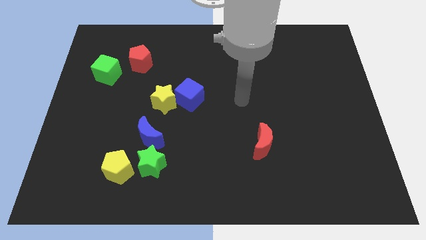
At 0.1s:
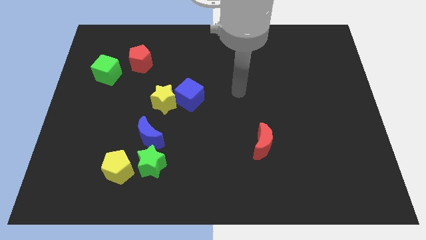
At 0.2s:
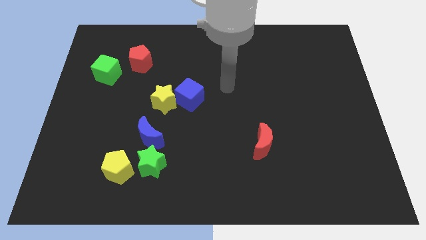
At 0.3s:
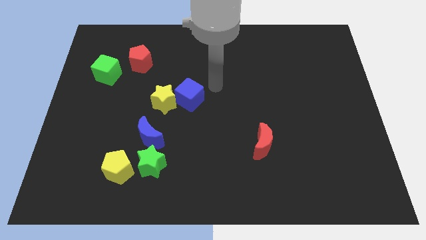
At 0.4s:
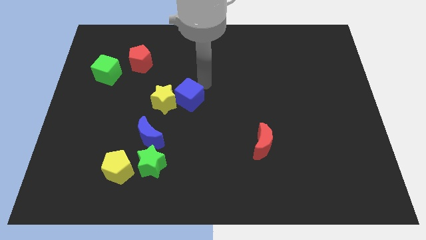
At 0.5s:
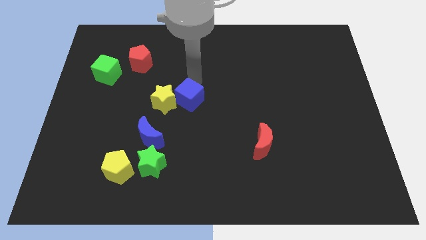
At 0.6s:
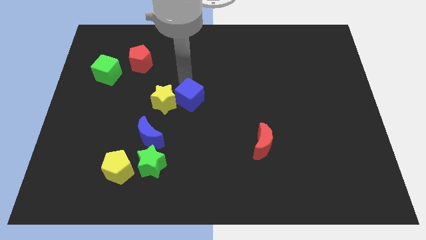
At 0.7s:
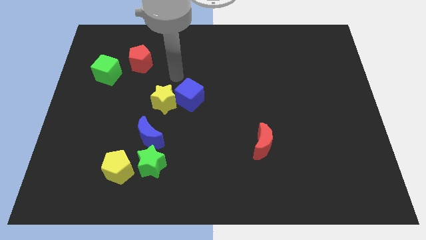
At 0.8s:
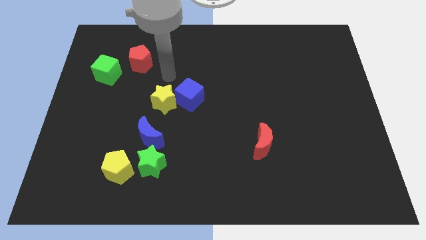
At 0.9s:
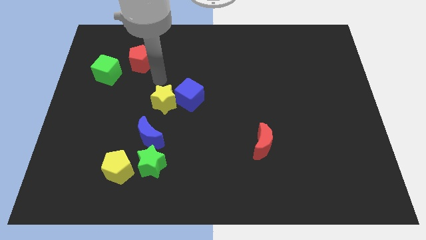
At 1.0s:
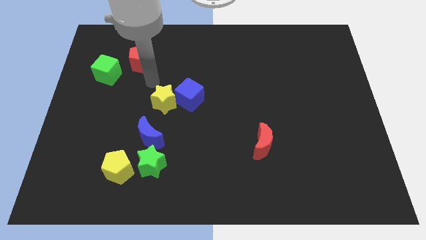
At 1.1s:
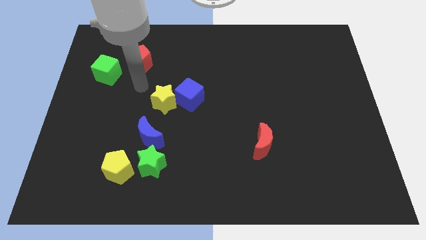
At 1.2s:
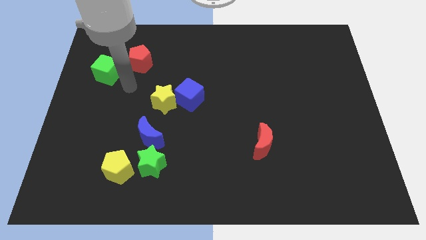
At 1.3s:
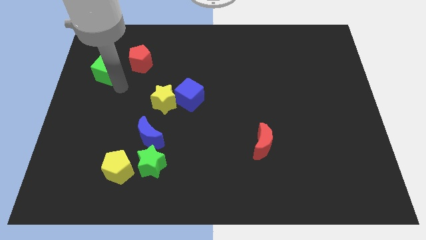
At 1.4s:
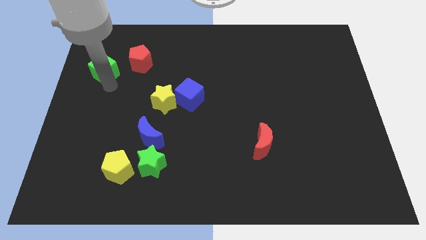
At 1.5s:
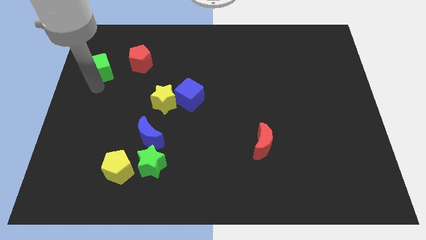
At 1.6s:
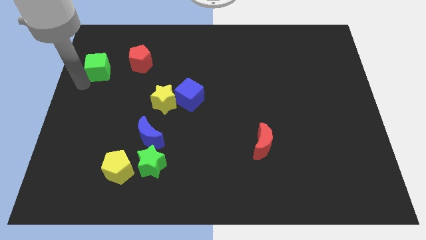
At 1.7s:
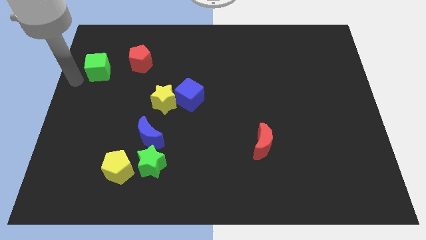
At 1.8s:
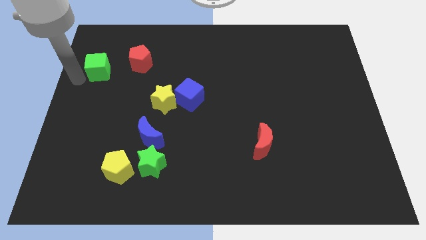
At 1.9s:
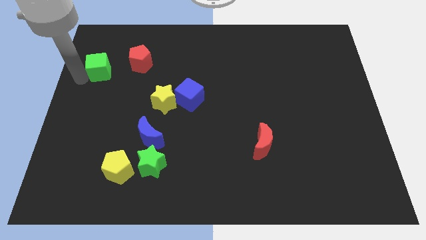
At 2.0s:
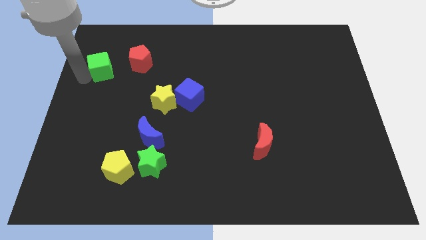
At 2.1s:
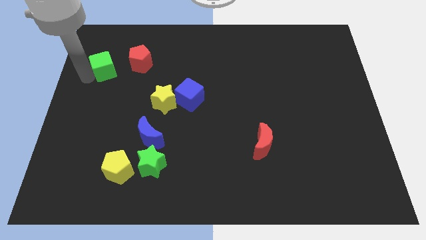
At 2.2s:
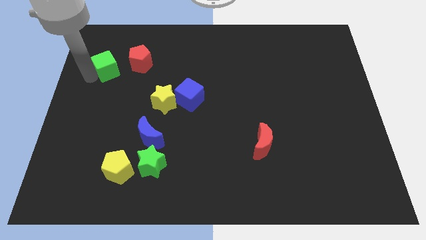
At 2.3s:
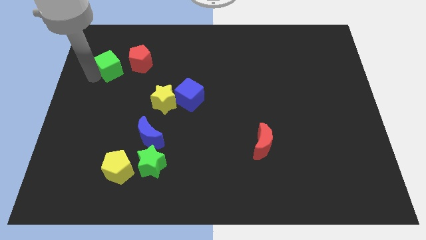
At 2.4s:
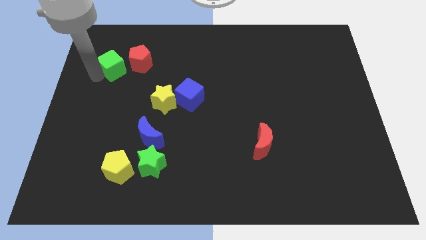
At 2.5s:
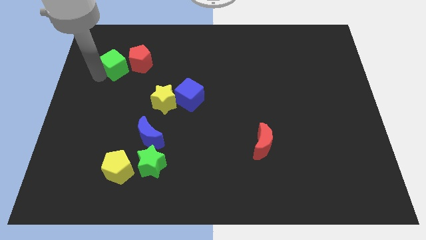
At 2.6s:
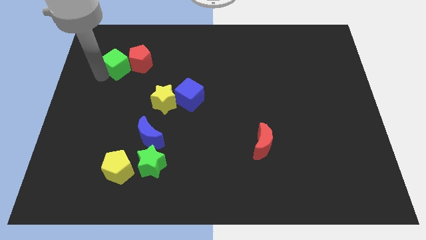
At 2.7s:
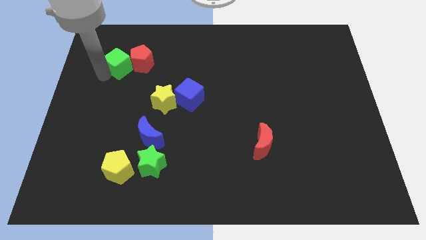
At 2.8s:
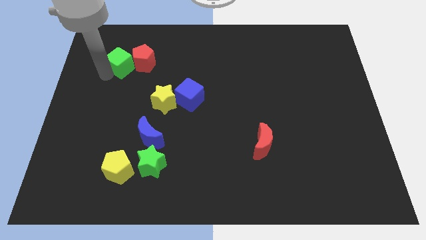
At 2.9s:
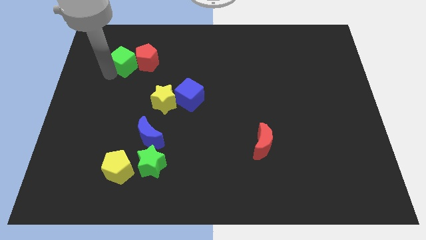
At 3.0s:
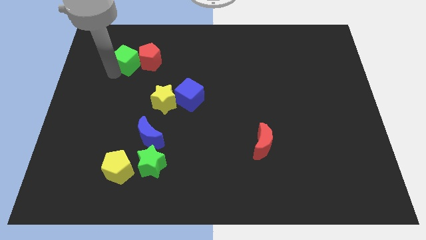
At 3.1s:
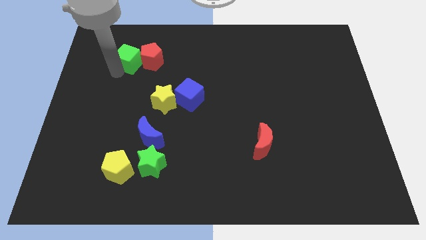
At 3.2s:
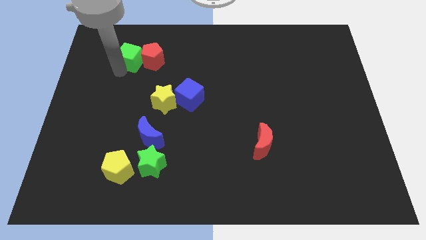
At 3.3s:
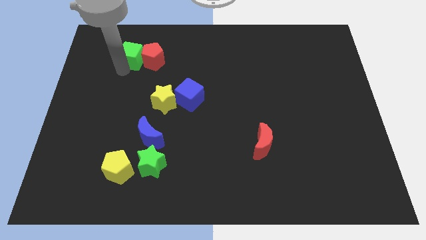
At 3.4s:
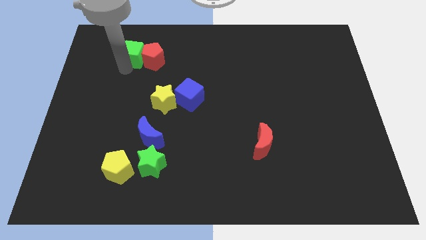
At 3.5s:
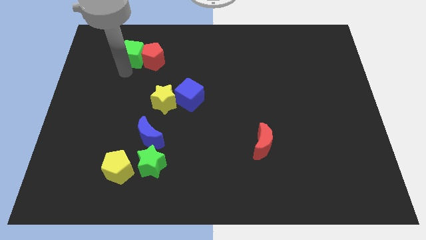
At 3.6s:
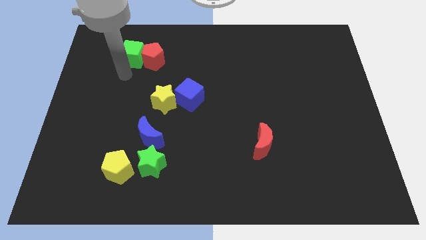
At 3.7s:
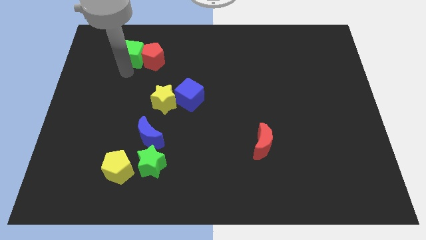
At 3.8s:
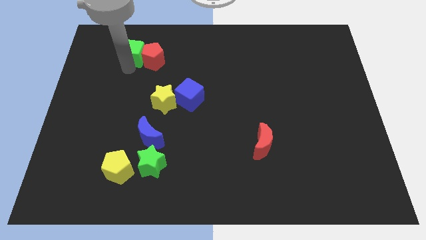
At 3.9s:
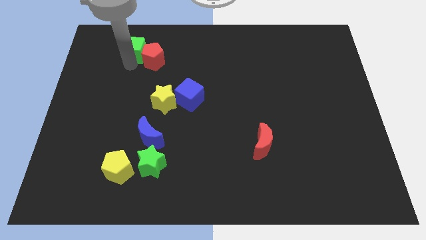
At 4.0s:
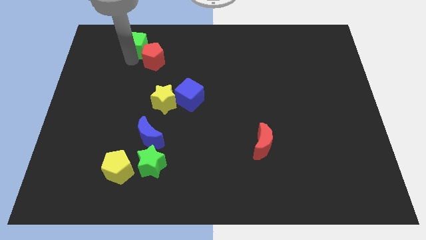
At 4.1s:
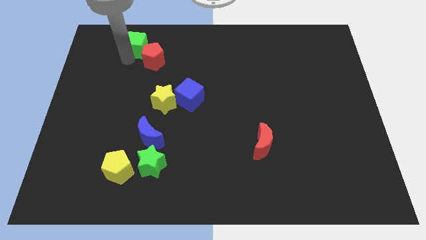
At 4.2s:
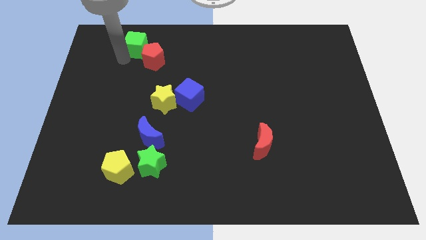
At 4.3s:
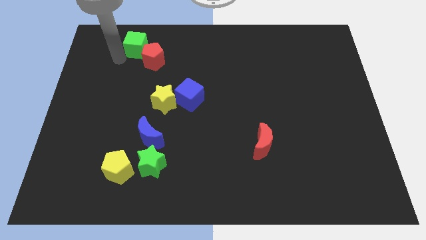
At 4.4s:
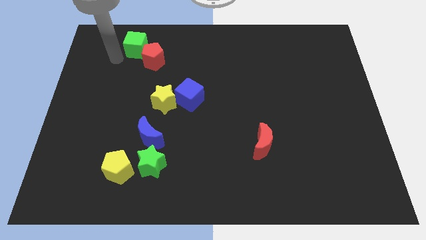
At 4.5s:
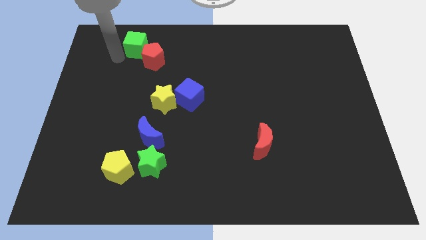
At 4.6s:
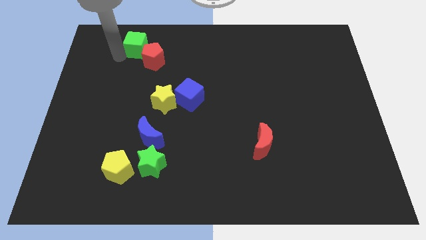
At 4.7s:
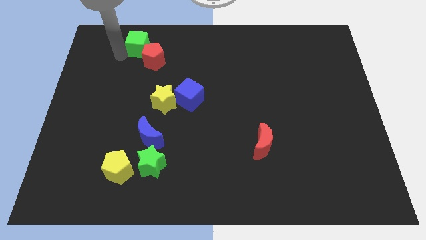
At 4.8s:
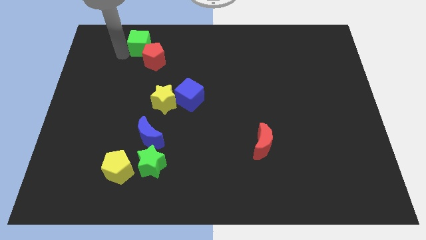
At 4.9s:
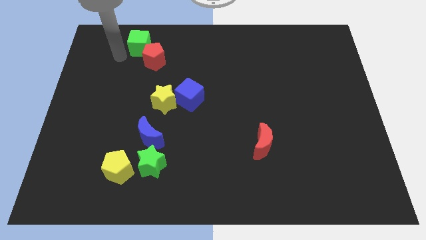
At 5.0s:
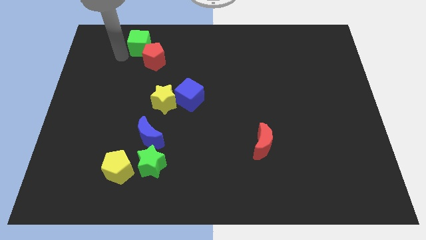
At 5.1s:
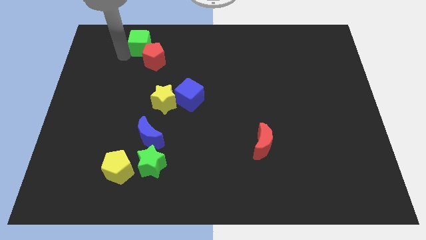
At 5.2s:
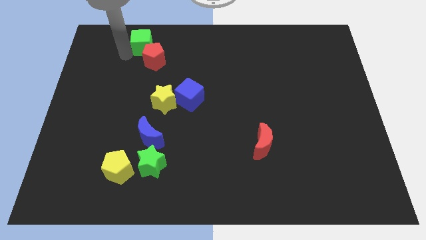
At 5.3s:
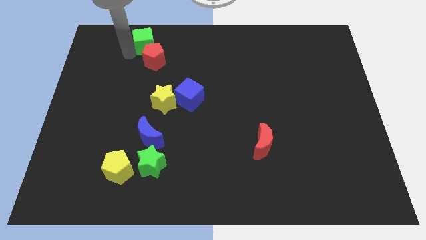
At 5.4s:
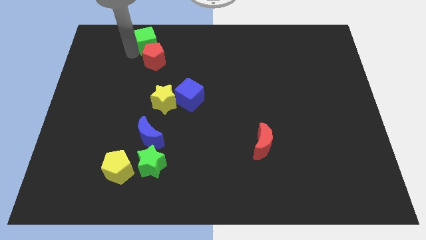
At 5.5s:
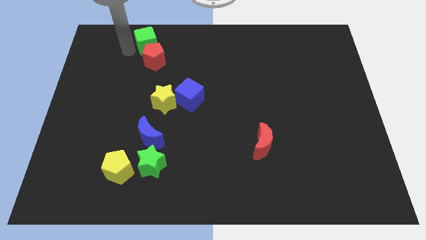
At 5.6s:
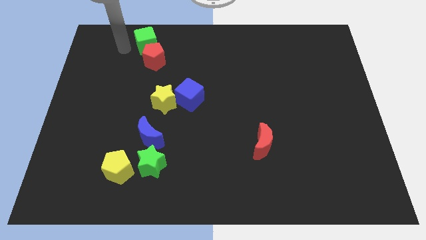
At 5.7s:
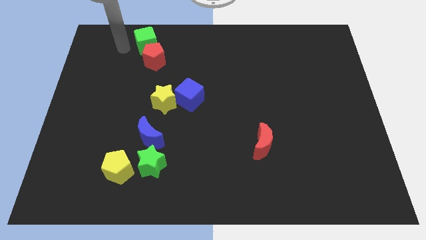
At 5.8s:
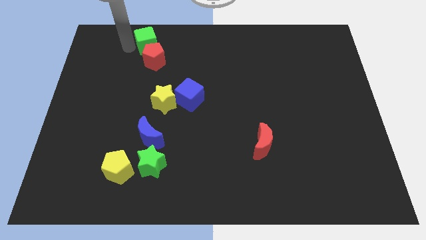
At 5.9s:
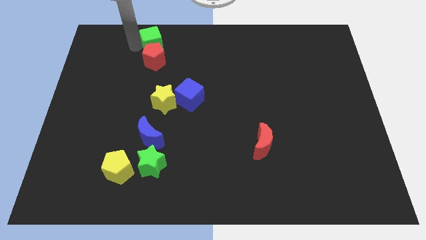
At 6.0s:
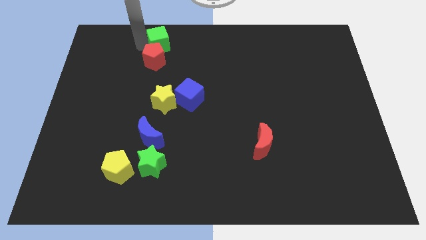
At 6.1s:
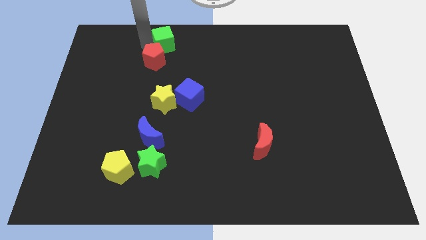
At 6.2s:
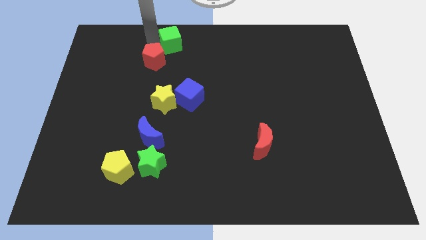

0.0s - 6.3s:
slide the green cube to the towards your base
